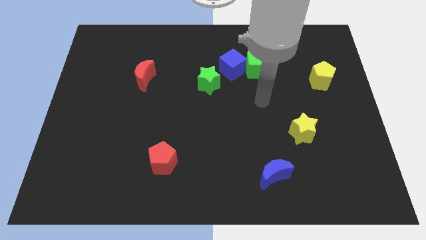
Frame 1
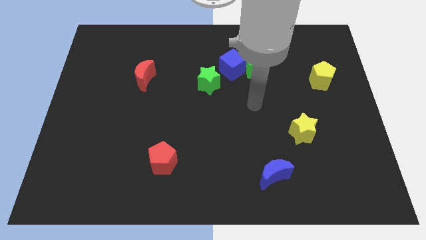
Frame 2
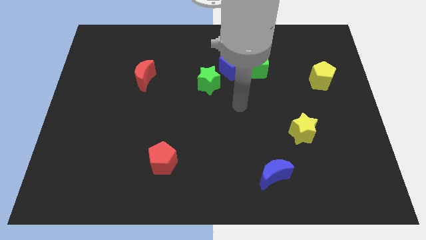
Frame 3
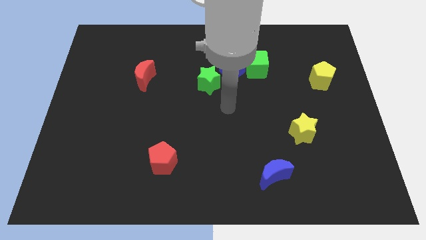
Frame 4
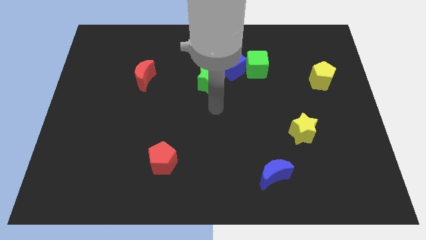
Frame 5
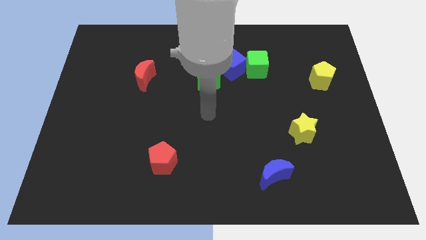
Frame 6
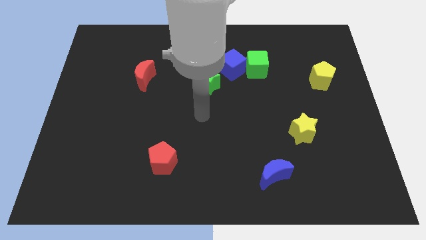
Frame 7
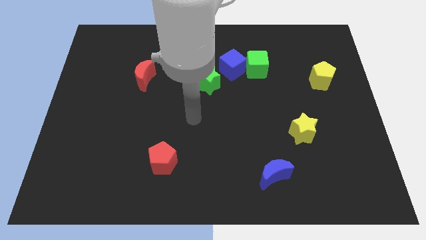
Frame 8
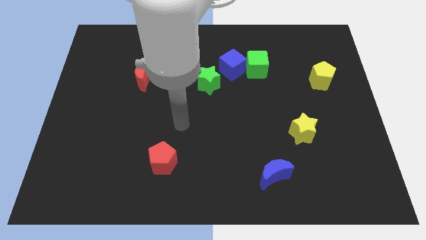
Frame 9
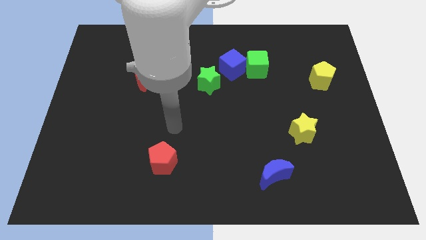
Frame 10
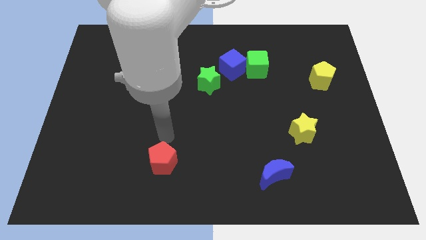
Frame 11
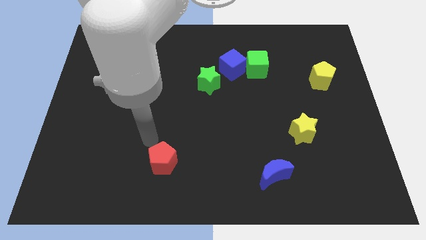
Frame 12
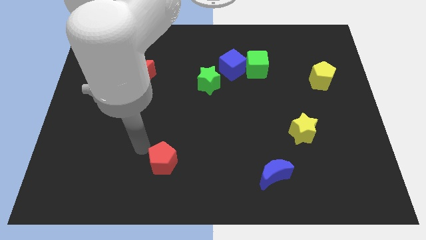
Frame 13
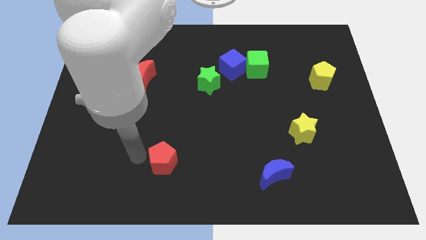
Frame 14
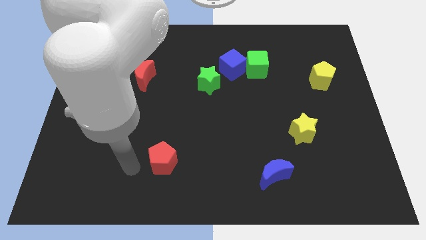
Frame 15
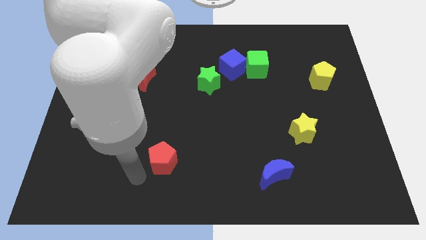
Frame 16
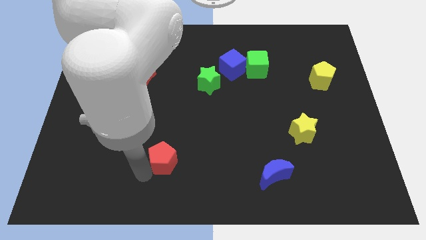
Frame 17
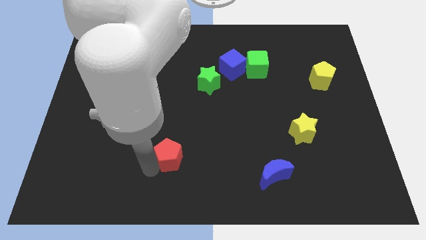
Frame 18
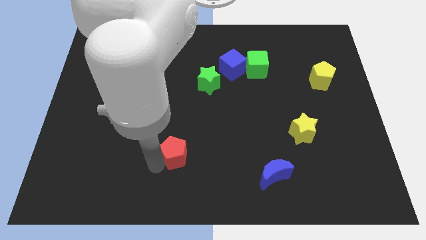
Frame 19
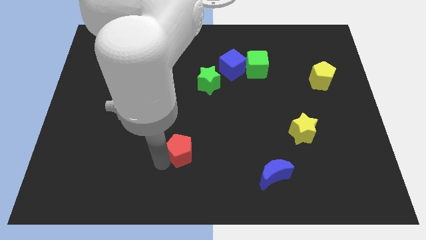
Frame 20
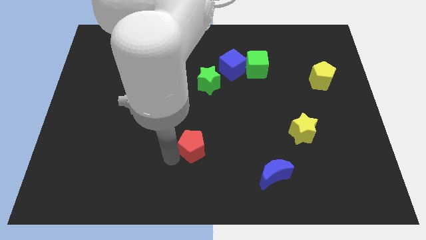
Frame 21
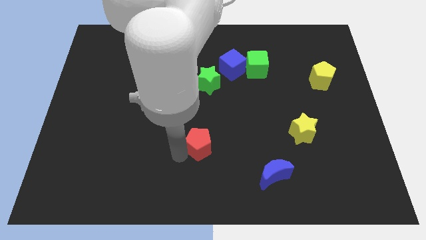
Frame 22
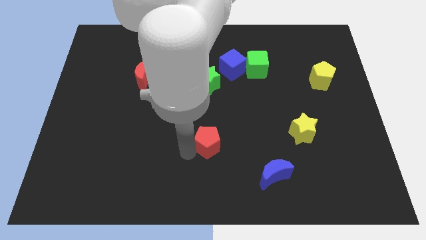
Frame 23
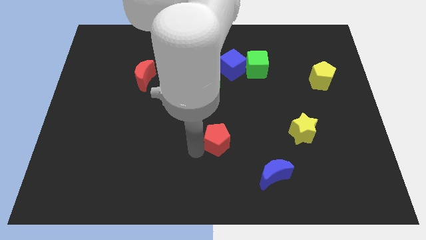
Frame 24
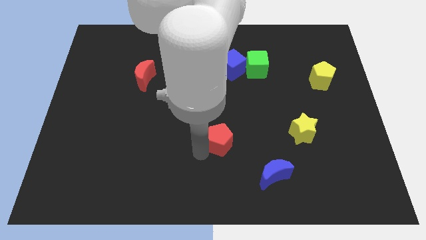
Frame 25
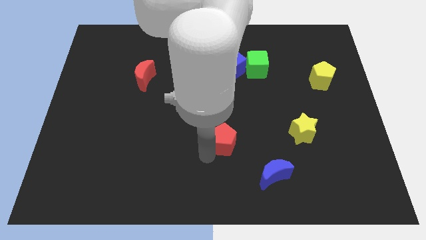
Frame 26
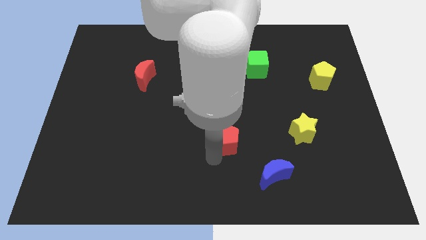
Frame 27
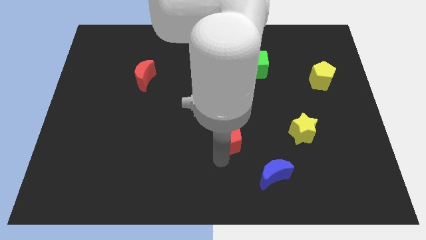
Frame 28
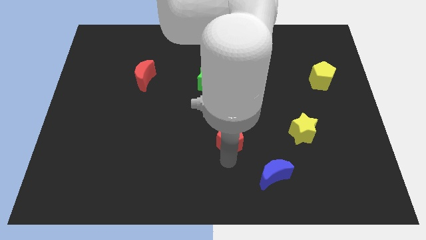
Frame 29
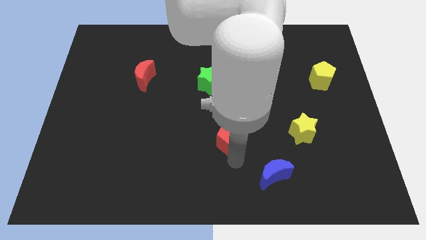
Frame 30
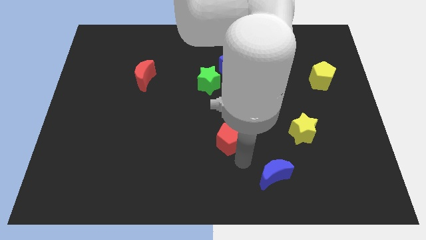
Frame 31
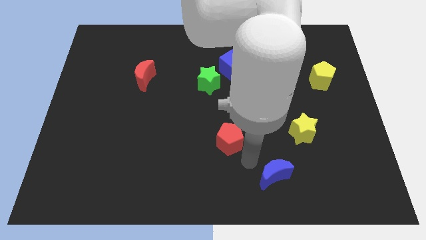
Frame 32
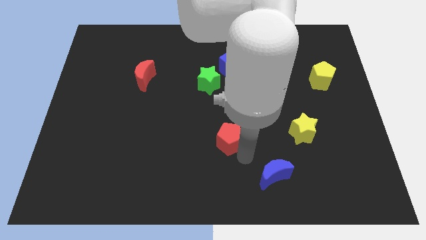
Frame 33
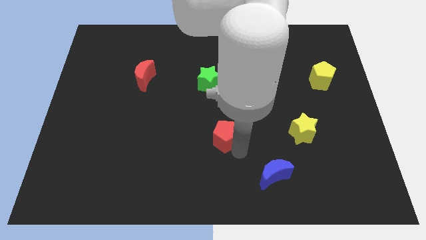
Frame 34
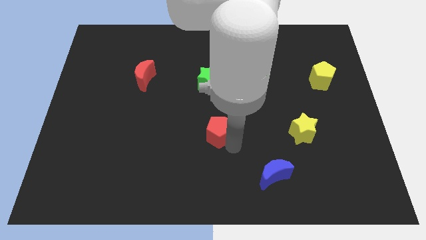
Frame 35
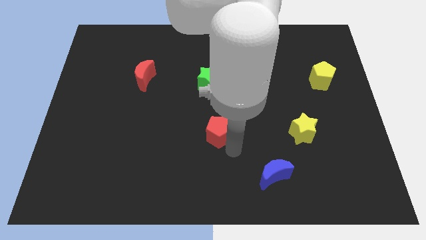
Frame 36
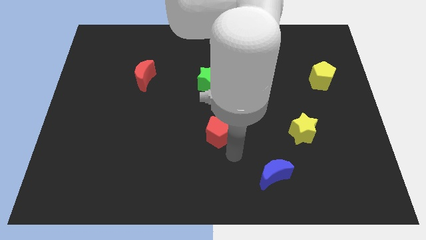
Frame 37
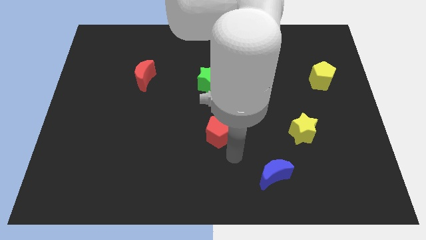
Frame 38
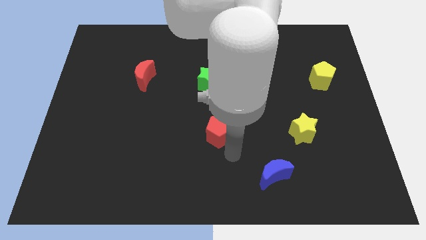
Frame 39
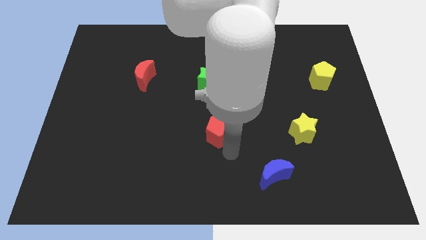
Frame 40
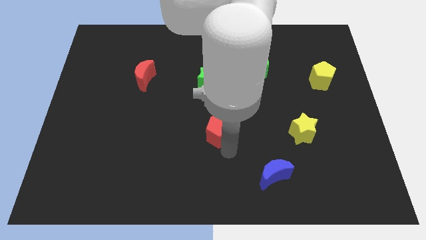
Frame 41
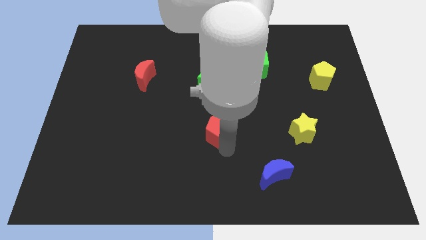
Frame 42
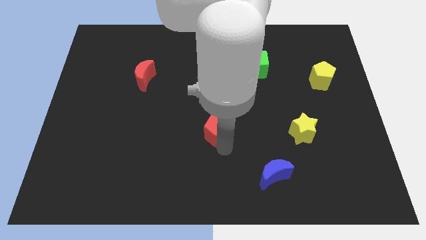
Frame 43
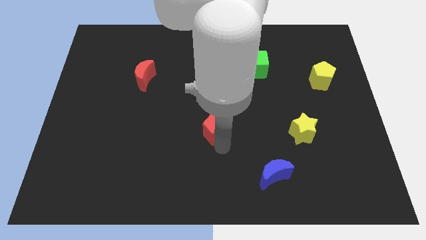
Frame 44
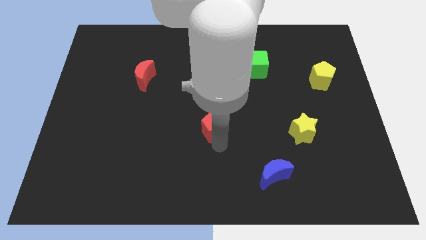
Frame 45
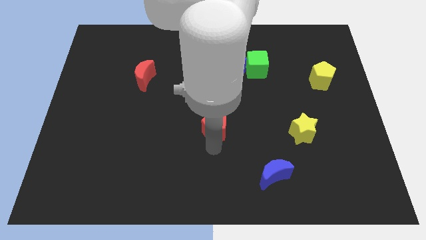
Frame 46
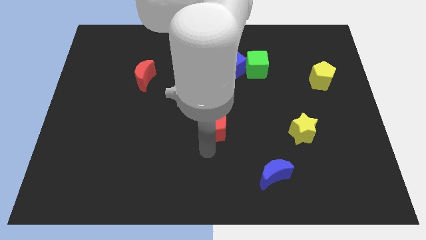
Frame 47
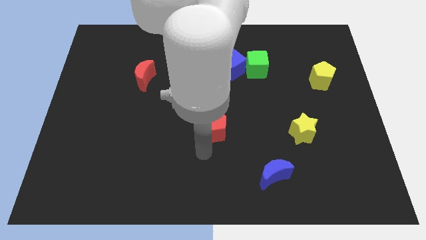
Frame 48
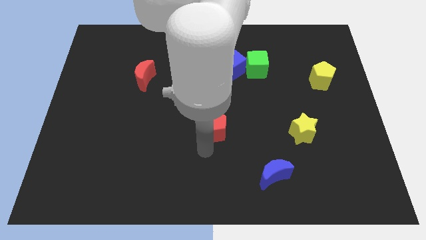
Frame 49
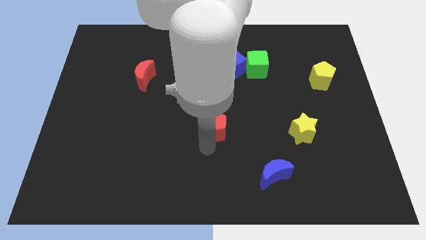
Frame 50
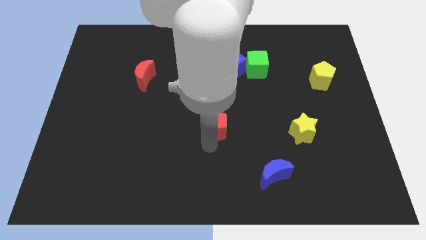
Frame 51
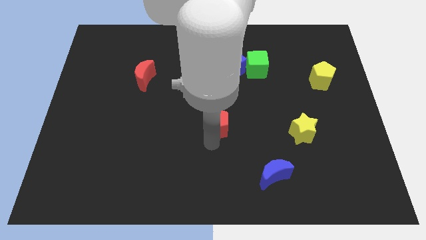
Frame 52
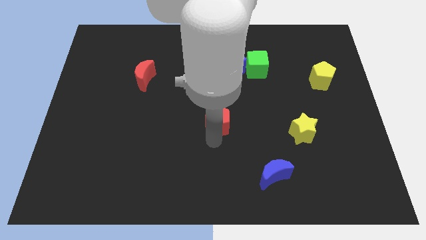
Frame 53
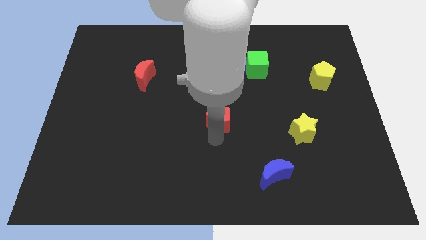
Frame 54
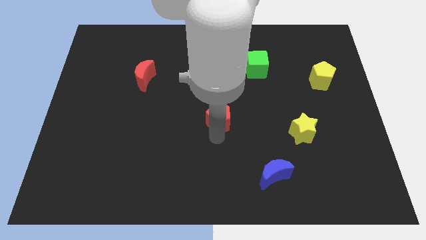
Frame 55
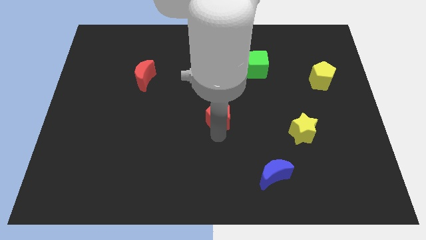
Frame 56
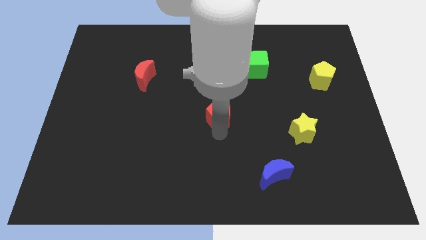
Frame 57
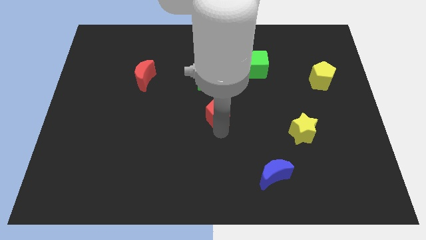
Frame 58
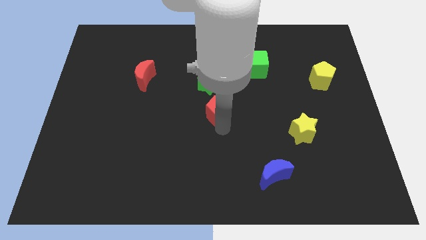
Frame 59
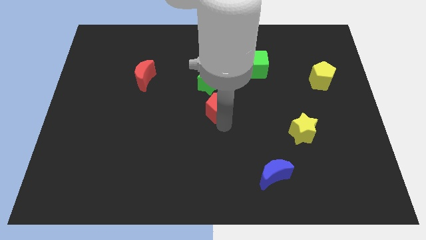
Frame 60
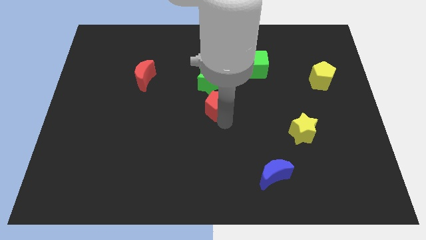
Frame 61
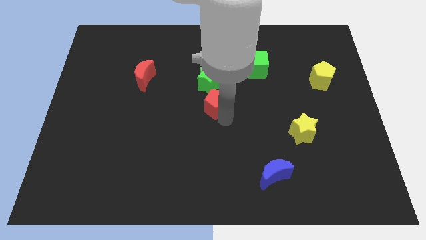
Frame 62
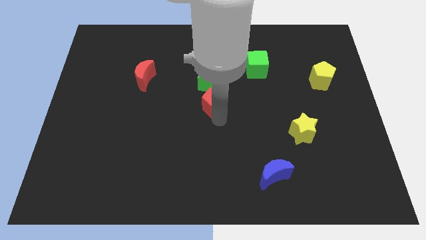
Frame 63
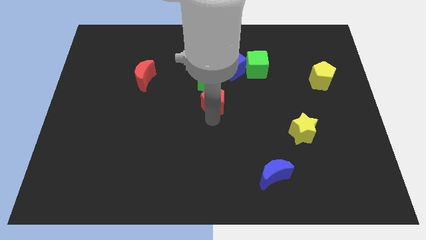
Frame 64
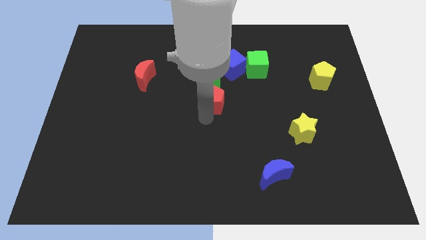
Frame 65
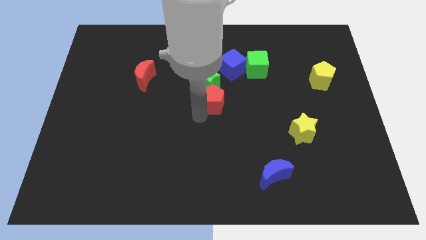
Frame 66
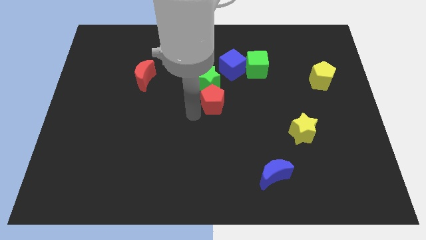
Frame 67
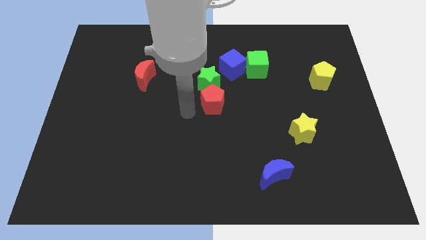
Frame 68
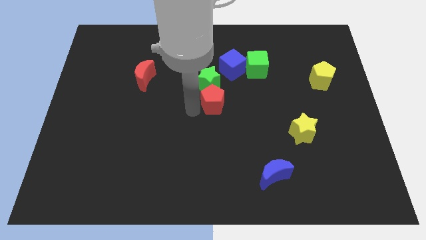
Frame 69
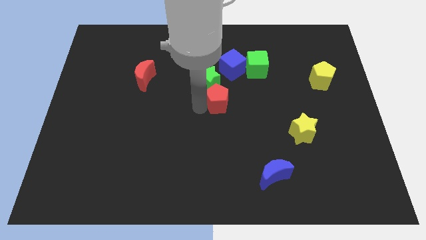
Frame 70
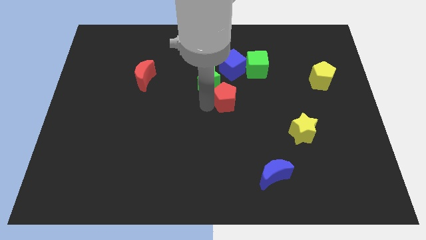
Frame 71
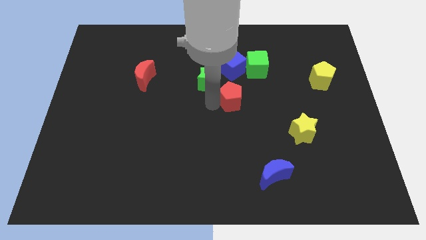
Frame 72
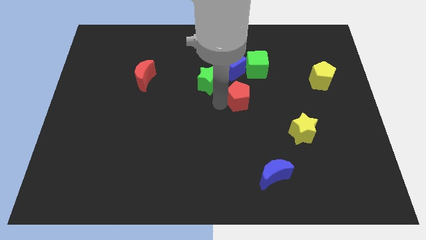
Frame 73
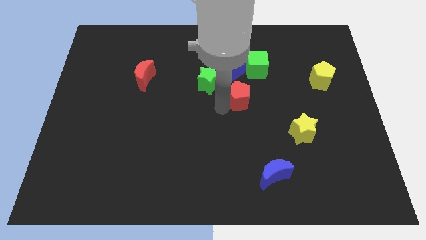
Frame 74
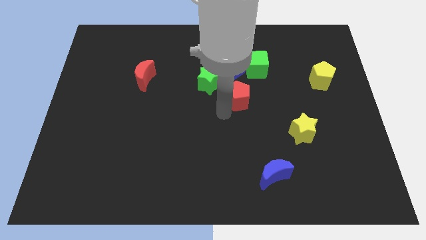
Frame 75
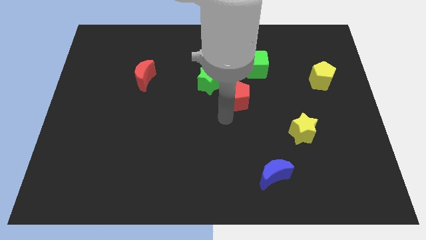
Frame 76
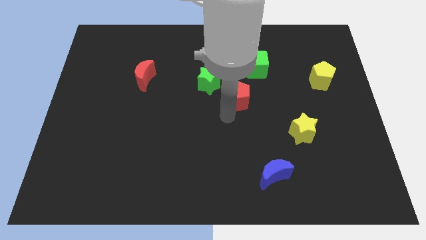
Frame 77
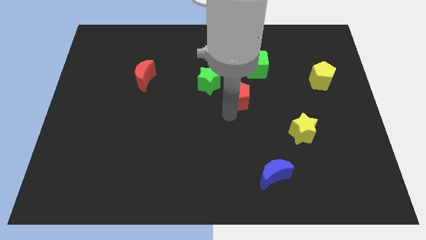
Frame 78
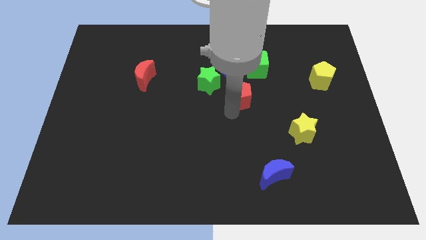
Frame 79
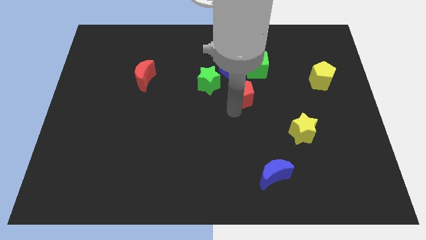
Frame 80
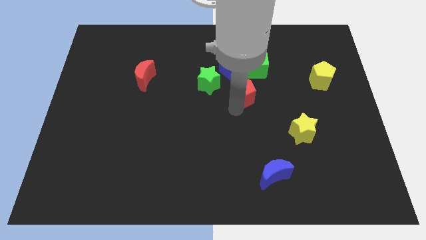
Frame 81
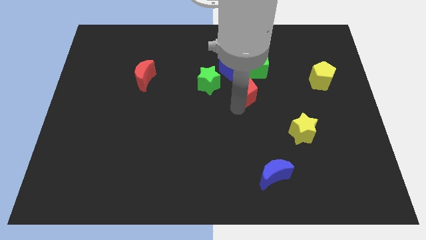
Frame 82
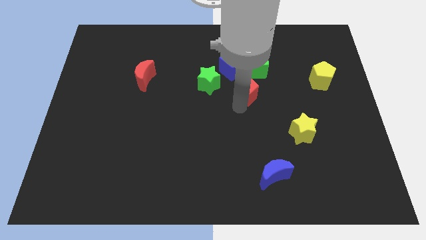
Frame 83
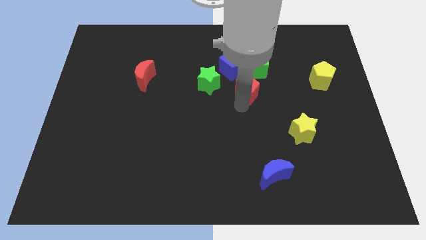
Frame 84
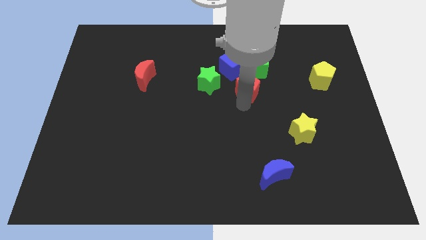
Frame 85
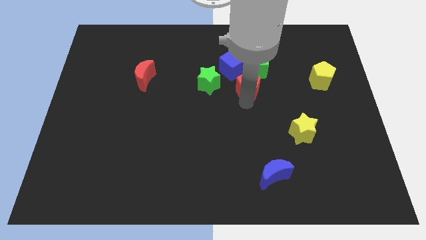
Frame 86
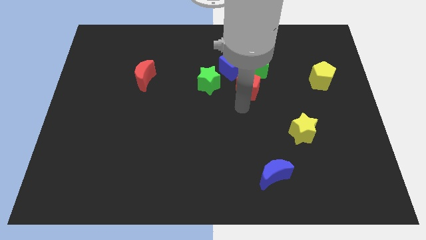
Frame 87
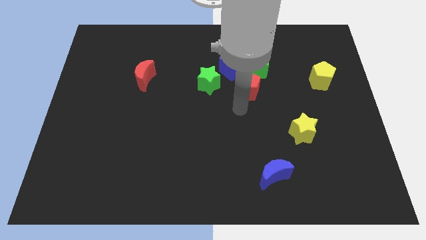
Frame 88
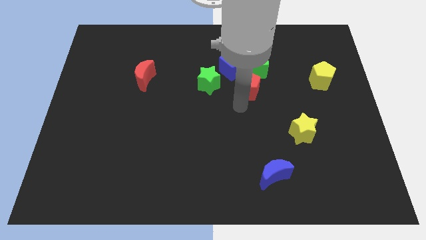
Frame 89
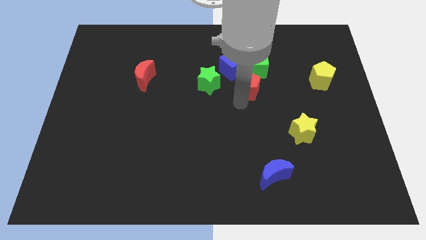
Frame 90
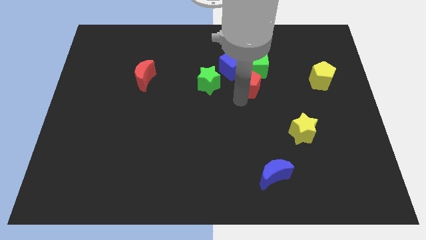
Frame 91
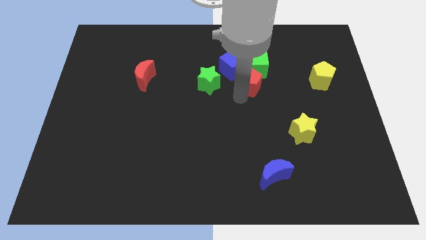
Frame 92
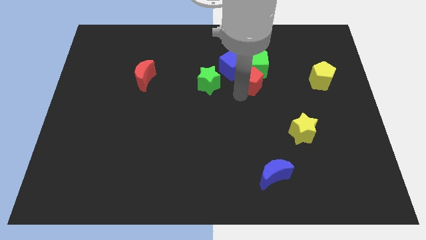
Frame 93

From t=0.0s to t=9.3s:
push the red pentagon towards the green cube
